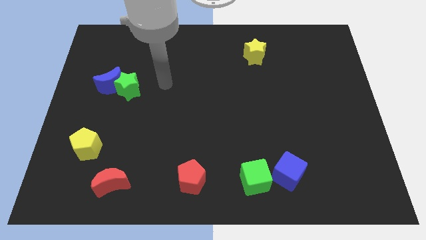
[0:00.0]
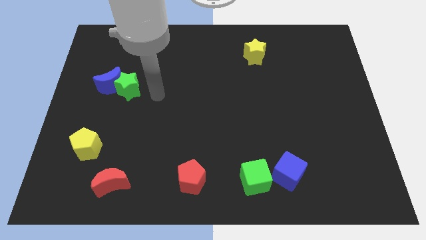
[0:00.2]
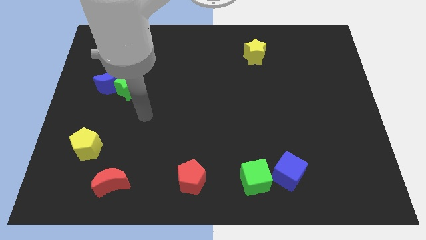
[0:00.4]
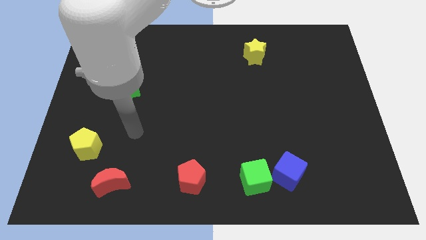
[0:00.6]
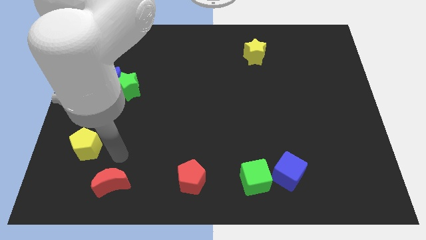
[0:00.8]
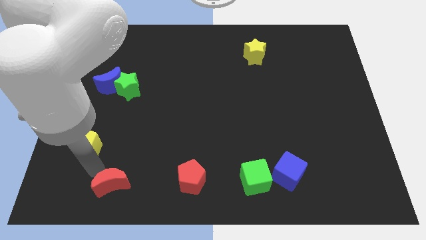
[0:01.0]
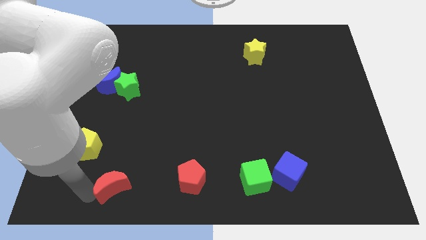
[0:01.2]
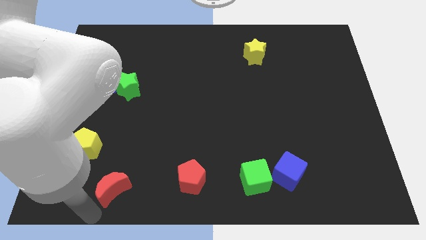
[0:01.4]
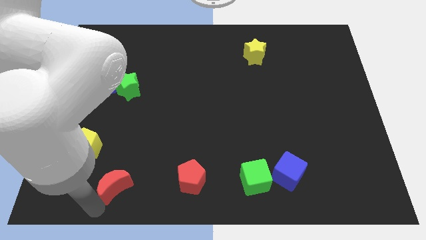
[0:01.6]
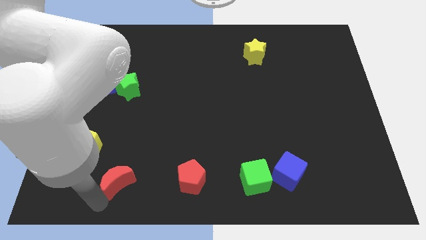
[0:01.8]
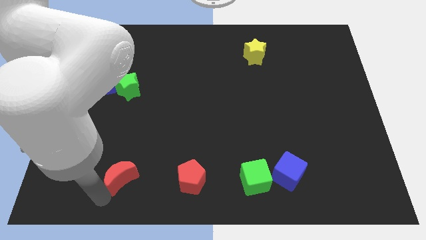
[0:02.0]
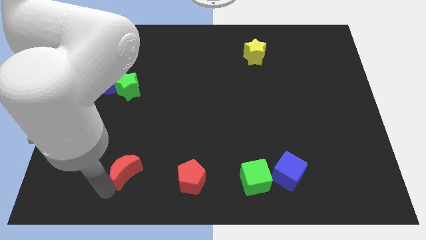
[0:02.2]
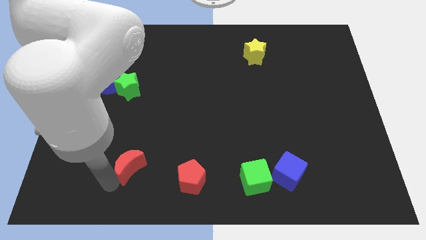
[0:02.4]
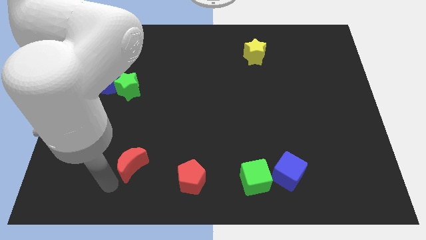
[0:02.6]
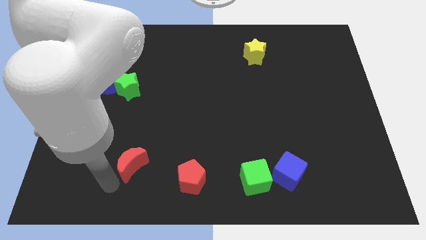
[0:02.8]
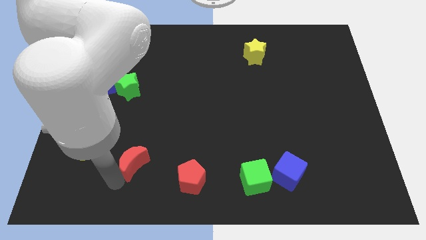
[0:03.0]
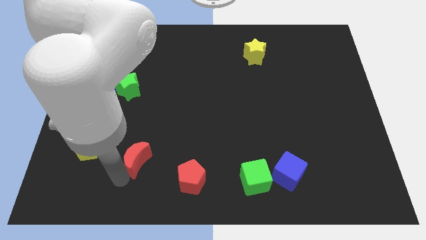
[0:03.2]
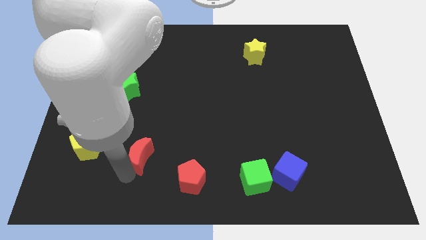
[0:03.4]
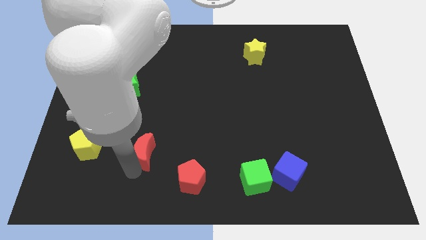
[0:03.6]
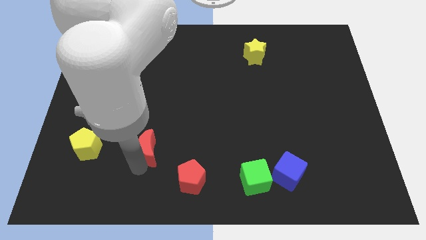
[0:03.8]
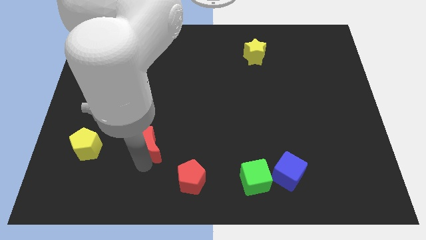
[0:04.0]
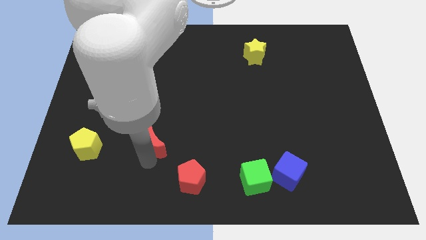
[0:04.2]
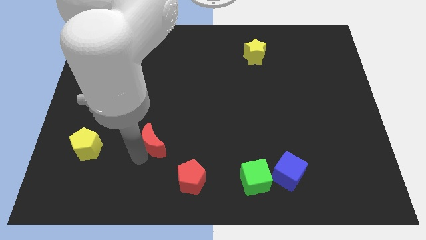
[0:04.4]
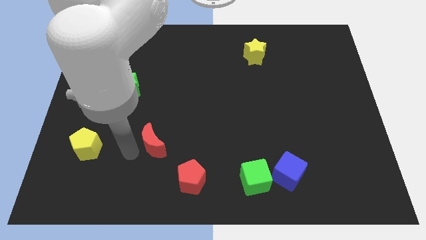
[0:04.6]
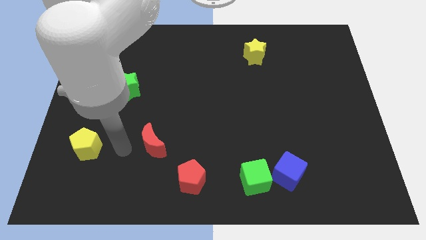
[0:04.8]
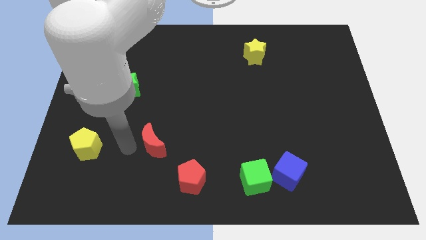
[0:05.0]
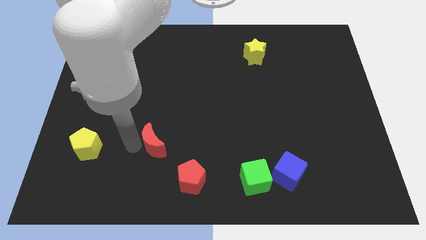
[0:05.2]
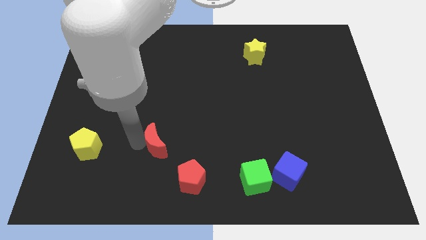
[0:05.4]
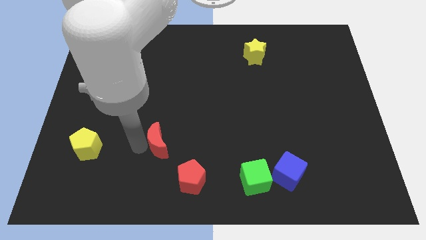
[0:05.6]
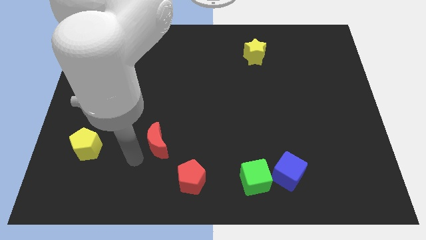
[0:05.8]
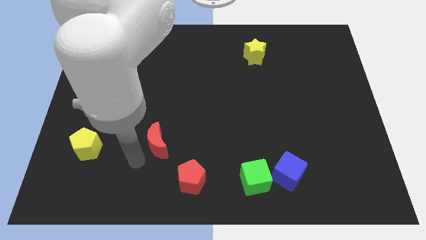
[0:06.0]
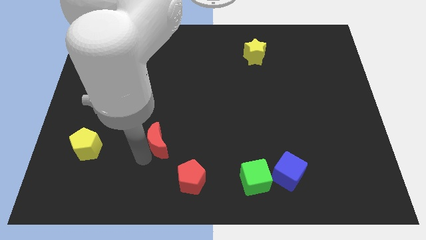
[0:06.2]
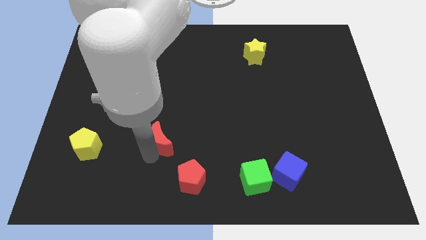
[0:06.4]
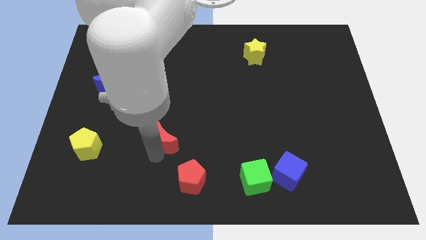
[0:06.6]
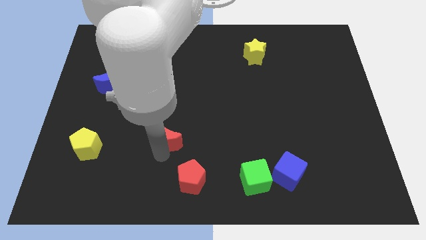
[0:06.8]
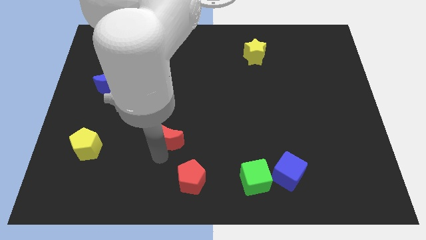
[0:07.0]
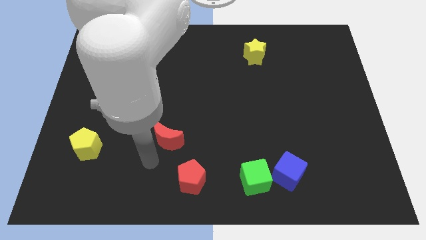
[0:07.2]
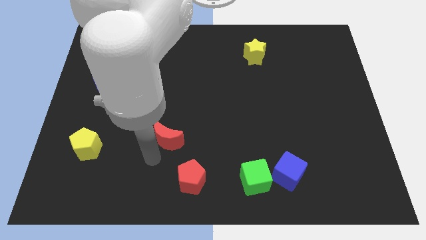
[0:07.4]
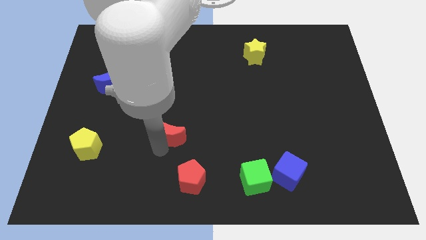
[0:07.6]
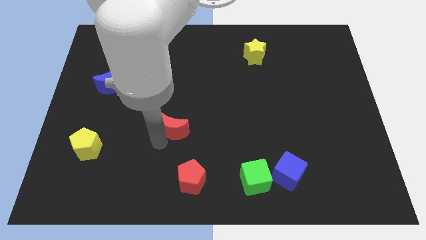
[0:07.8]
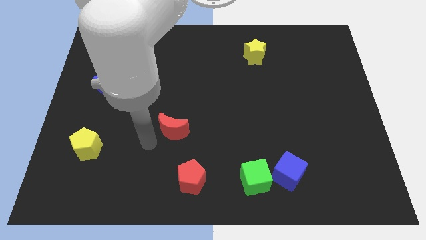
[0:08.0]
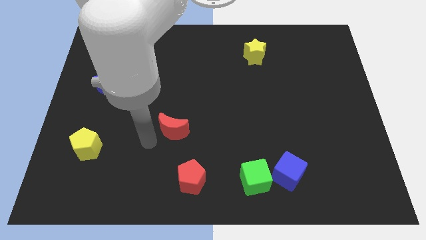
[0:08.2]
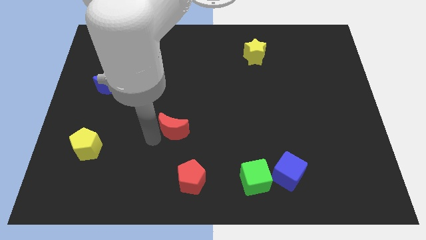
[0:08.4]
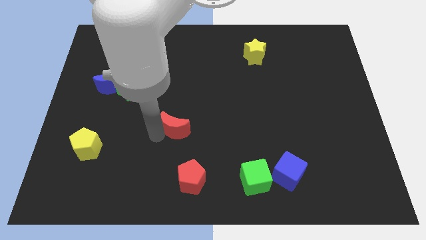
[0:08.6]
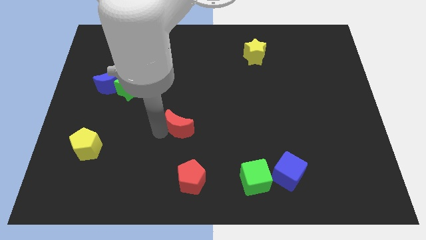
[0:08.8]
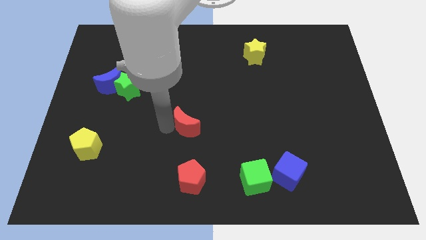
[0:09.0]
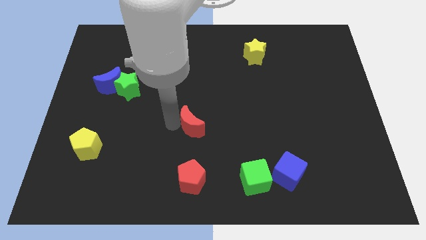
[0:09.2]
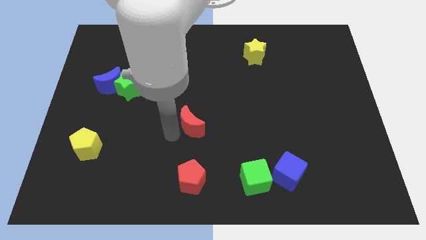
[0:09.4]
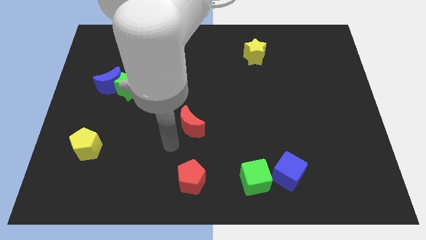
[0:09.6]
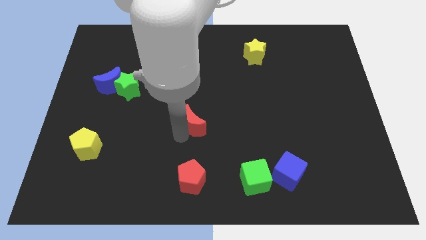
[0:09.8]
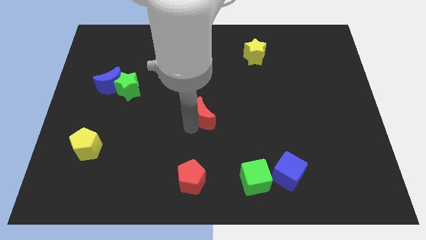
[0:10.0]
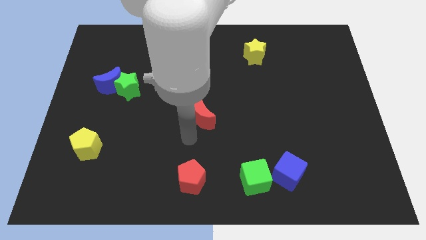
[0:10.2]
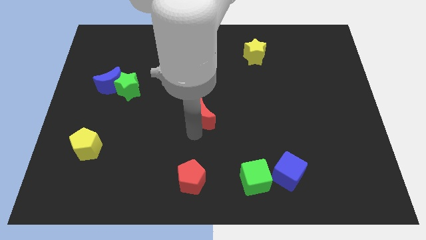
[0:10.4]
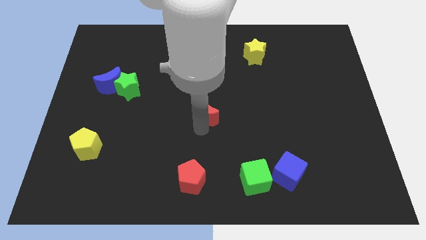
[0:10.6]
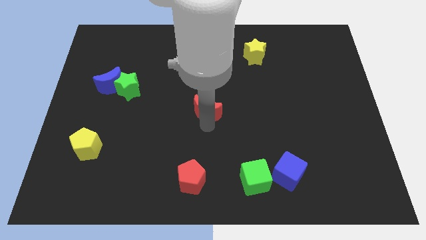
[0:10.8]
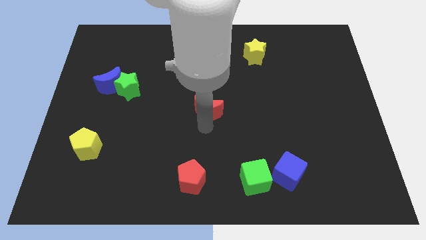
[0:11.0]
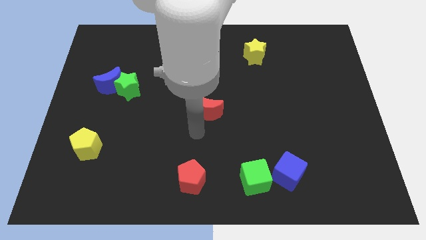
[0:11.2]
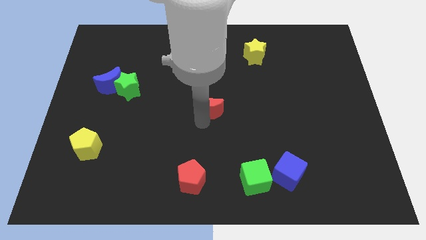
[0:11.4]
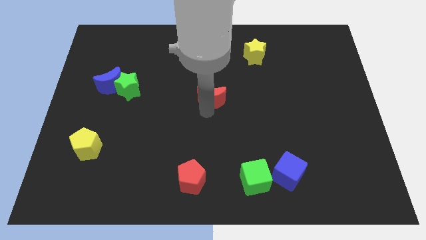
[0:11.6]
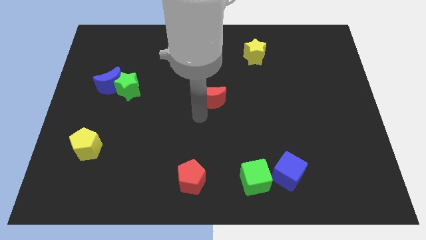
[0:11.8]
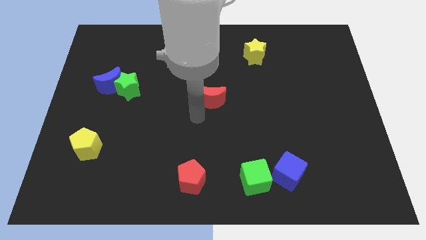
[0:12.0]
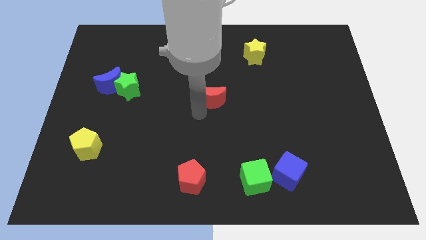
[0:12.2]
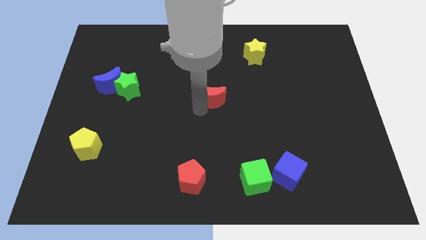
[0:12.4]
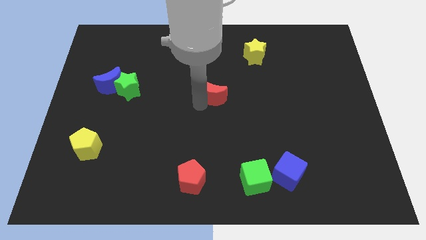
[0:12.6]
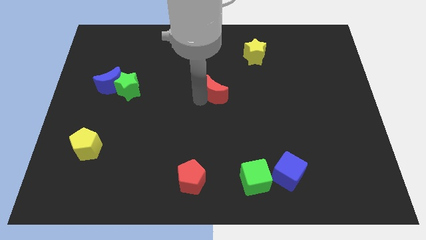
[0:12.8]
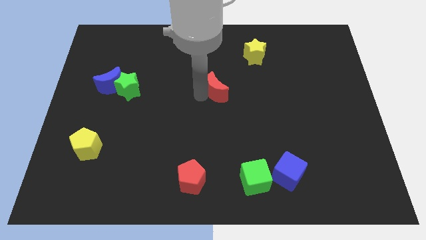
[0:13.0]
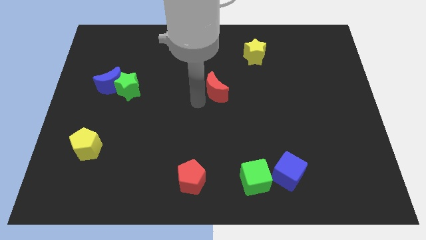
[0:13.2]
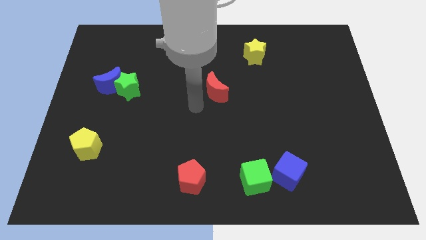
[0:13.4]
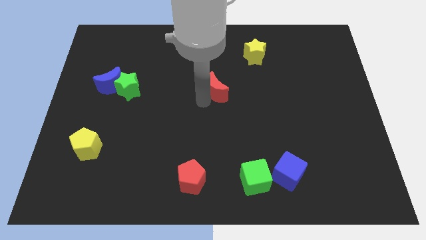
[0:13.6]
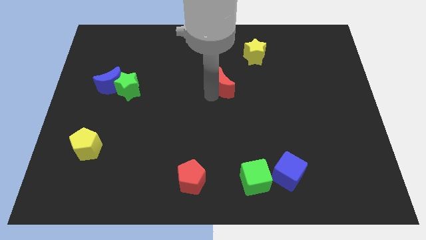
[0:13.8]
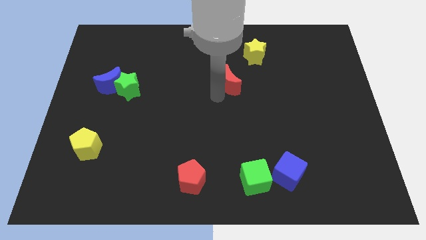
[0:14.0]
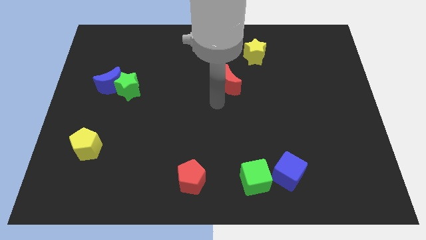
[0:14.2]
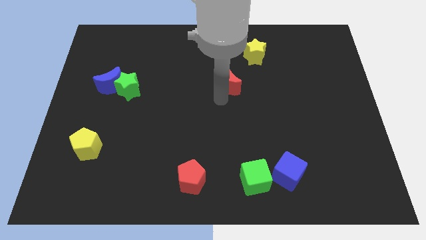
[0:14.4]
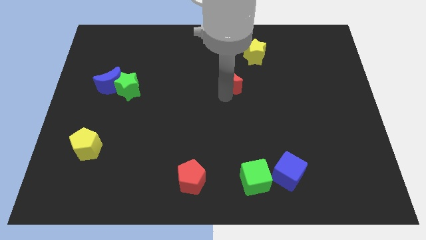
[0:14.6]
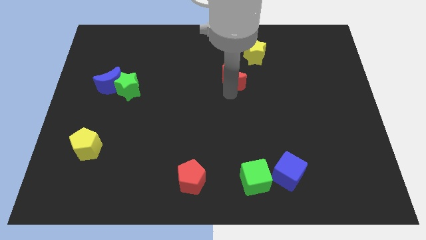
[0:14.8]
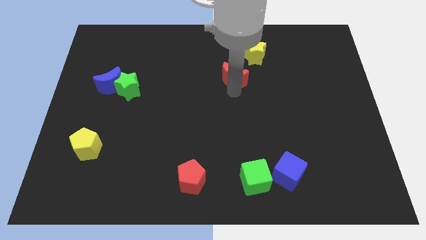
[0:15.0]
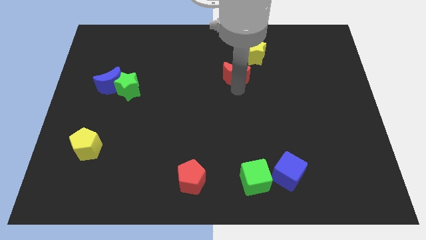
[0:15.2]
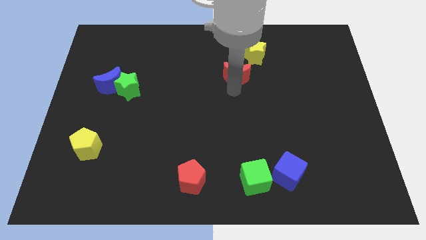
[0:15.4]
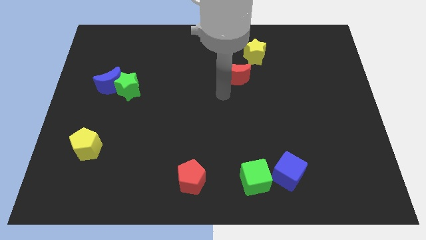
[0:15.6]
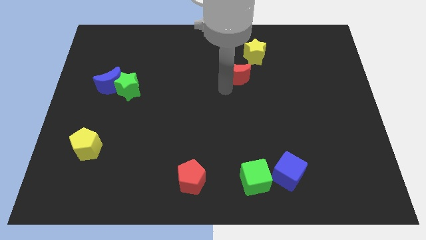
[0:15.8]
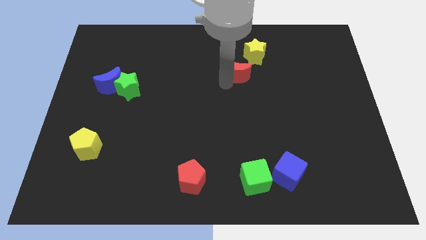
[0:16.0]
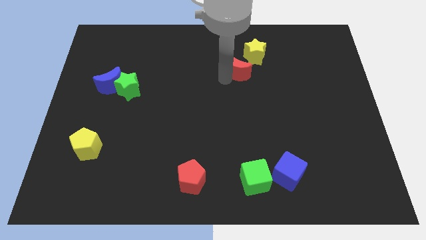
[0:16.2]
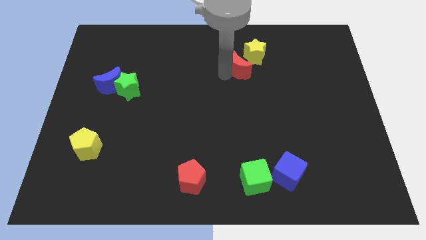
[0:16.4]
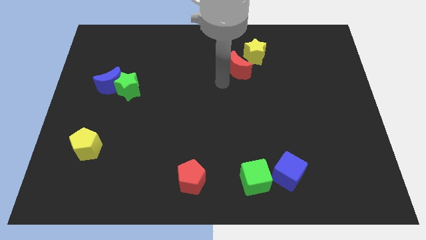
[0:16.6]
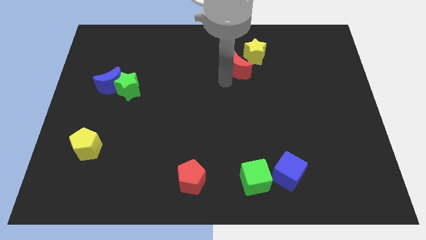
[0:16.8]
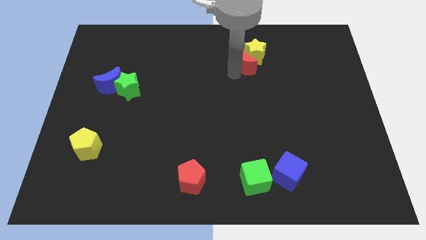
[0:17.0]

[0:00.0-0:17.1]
push the red moon close to the yellow star
